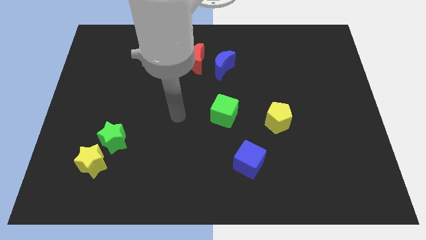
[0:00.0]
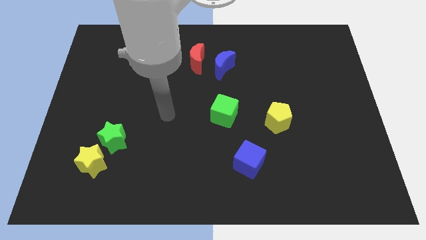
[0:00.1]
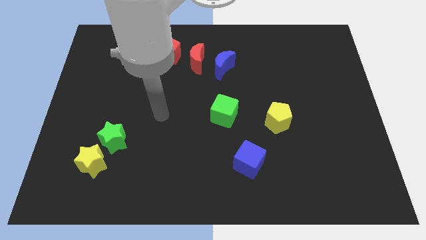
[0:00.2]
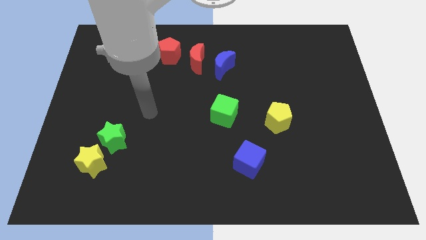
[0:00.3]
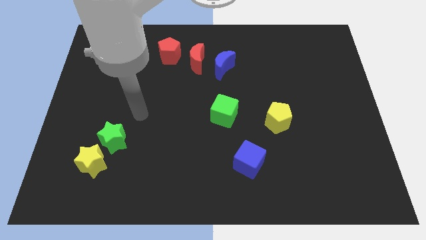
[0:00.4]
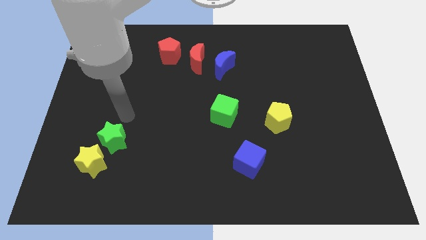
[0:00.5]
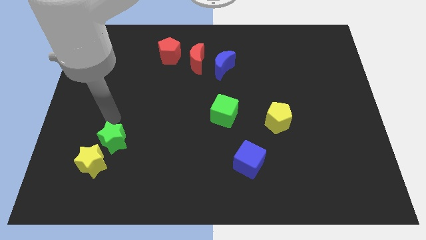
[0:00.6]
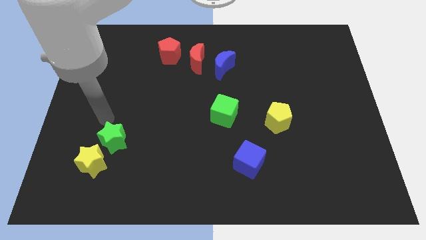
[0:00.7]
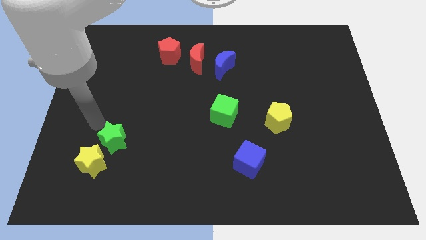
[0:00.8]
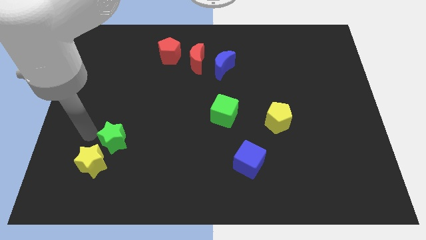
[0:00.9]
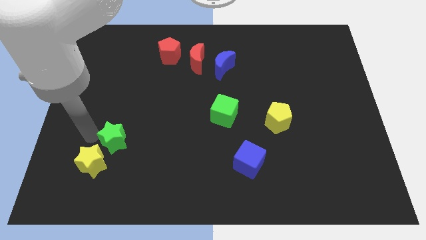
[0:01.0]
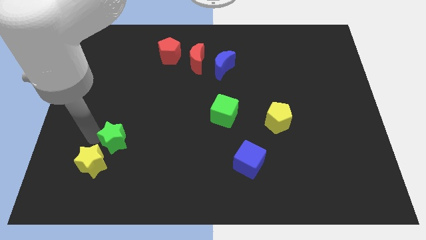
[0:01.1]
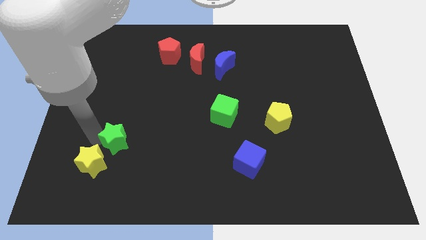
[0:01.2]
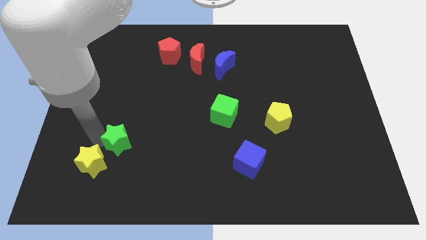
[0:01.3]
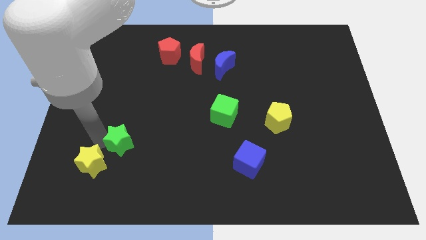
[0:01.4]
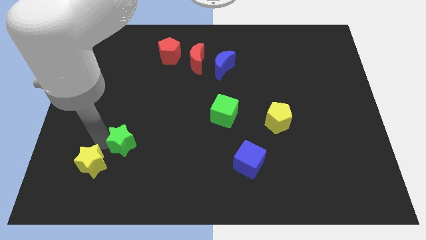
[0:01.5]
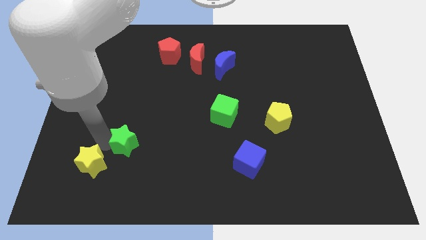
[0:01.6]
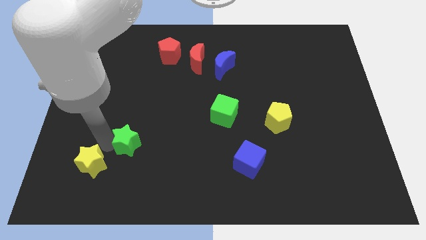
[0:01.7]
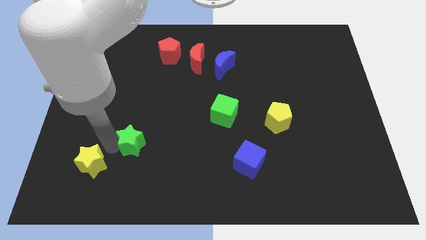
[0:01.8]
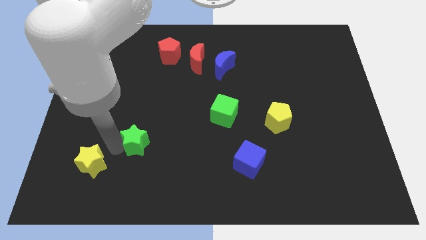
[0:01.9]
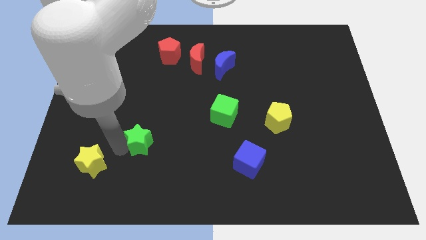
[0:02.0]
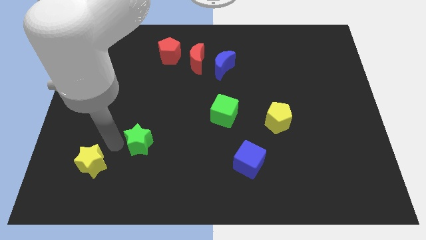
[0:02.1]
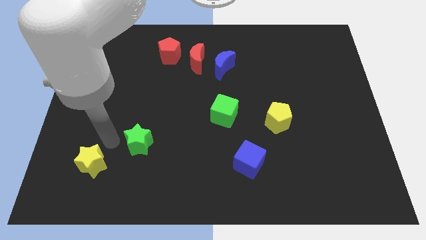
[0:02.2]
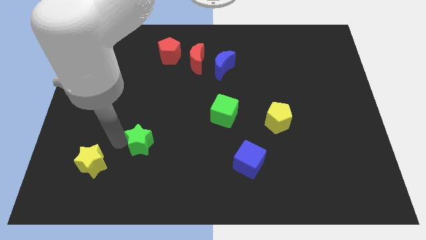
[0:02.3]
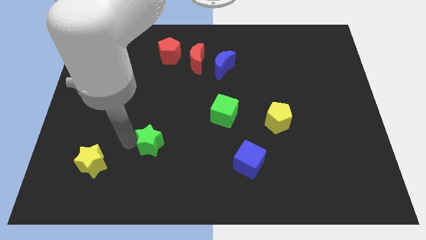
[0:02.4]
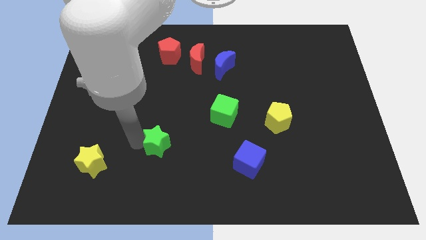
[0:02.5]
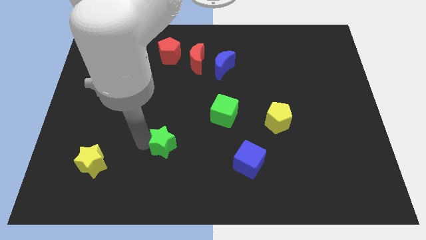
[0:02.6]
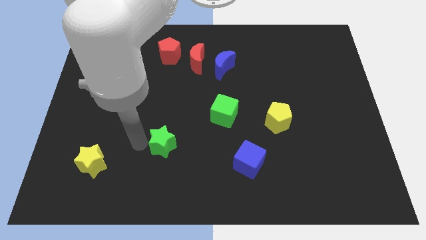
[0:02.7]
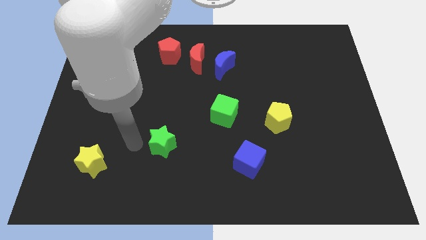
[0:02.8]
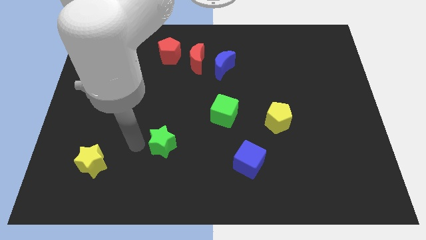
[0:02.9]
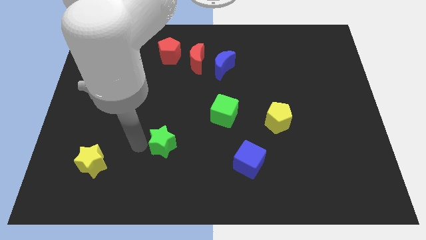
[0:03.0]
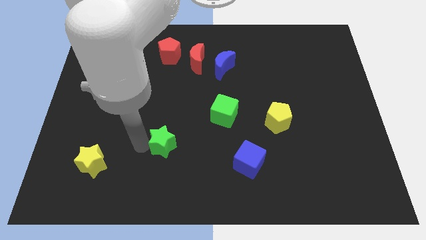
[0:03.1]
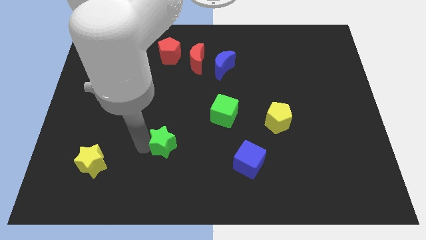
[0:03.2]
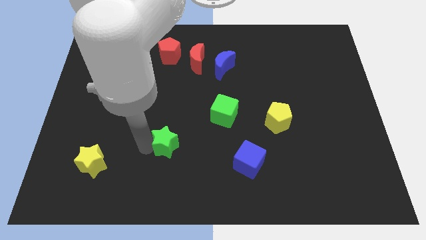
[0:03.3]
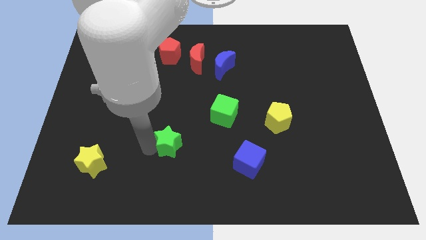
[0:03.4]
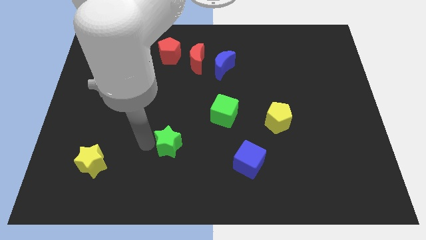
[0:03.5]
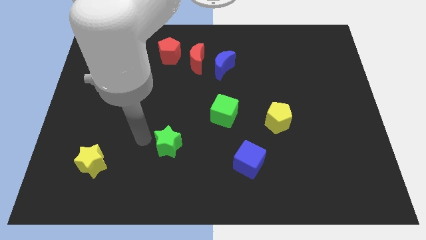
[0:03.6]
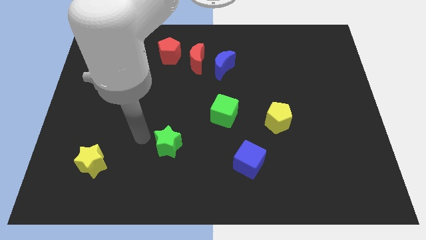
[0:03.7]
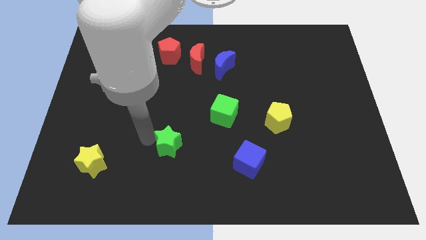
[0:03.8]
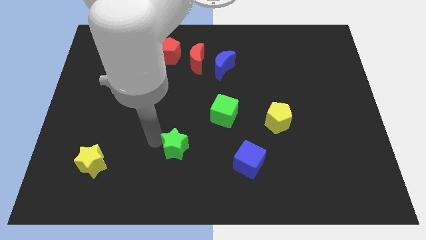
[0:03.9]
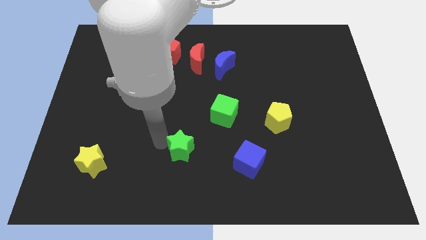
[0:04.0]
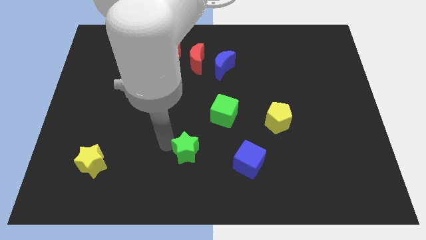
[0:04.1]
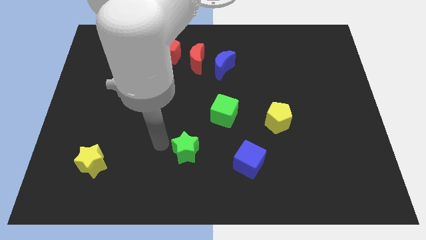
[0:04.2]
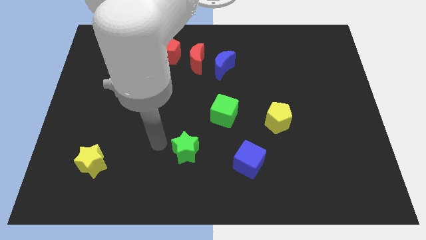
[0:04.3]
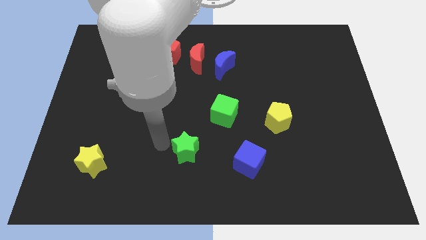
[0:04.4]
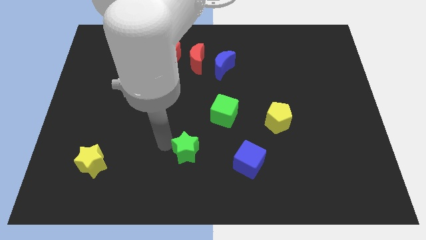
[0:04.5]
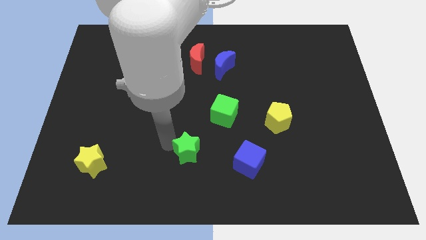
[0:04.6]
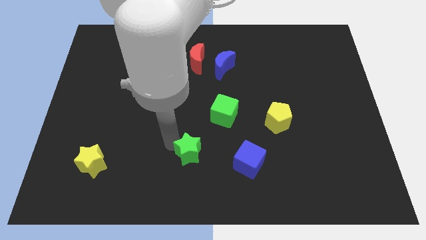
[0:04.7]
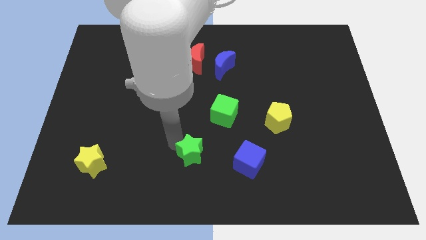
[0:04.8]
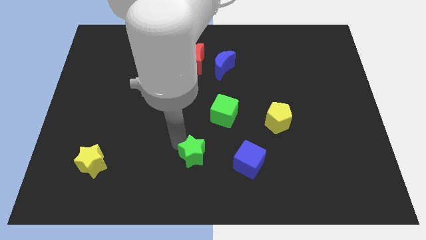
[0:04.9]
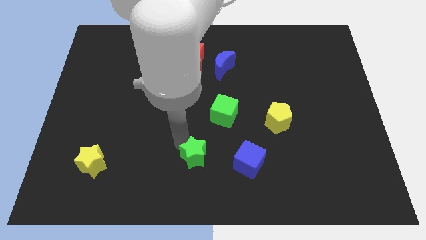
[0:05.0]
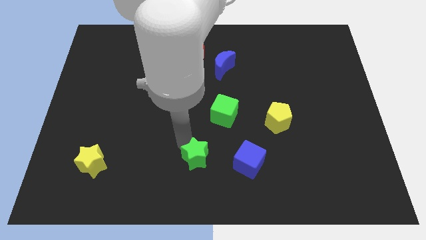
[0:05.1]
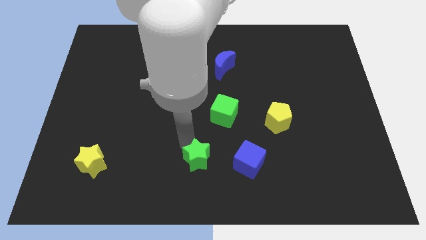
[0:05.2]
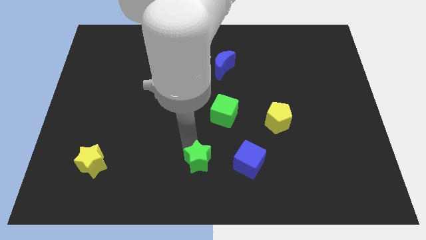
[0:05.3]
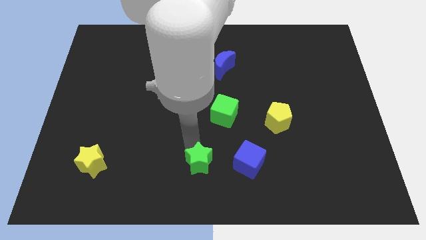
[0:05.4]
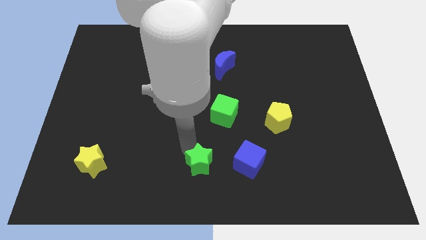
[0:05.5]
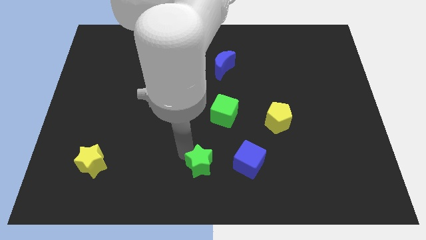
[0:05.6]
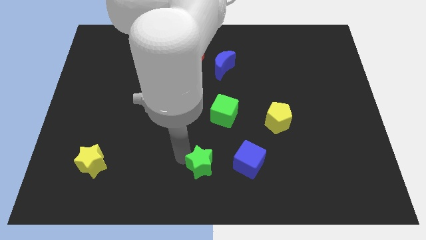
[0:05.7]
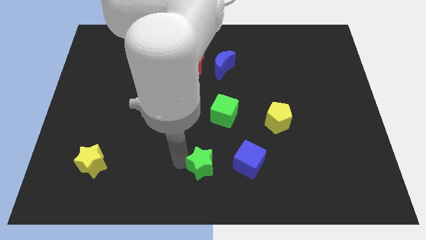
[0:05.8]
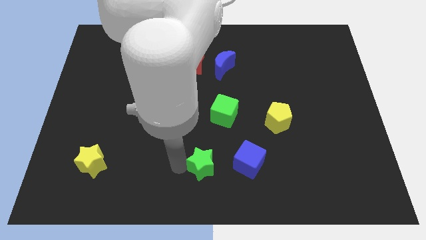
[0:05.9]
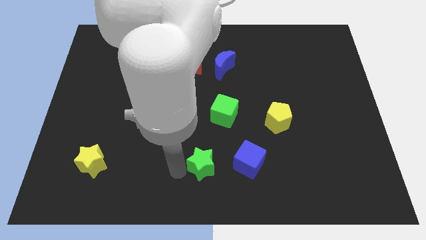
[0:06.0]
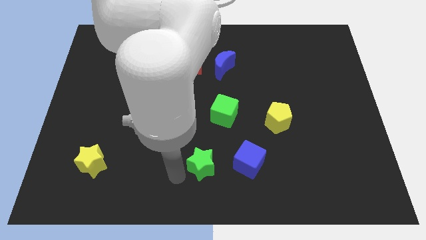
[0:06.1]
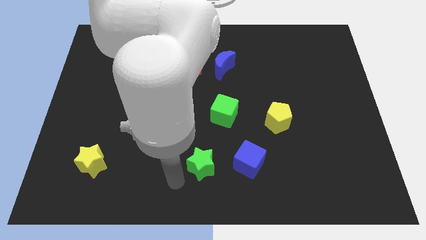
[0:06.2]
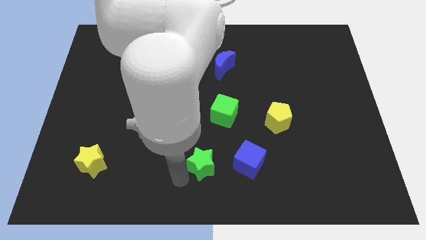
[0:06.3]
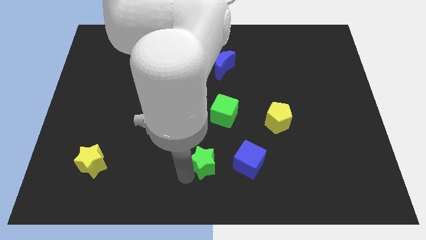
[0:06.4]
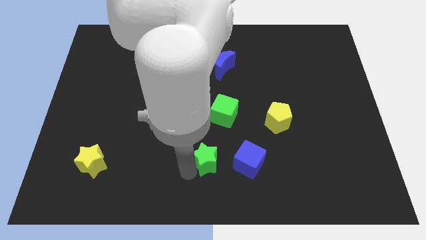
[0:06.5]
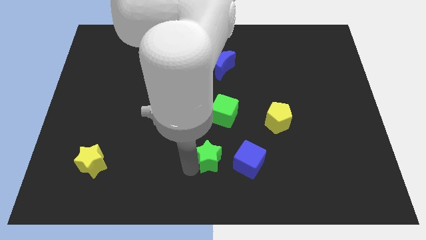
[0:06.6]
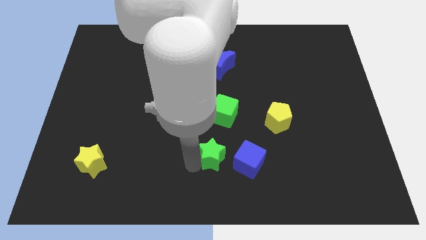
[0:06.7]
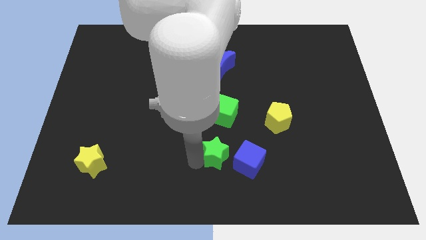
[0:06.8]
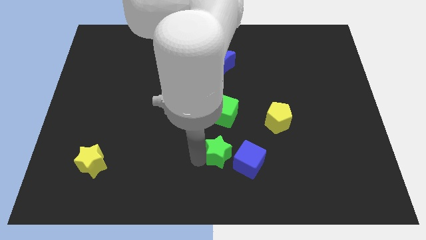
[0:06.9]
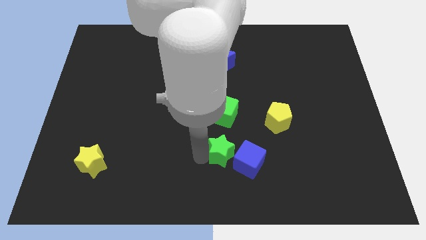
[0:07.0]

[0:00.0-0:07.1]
push the green star towards the blue cube

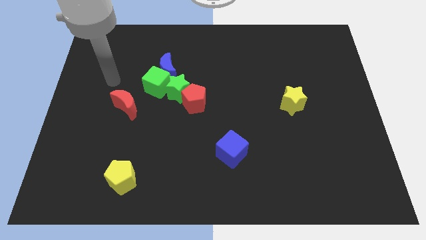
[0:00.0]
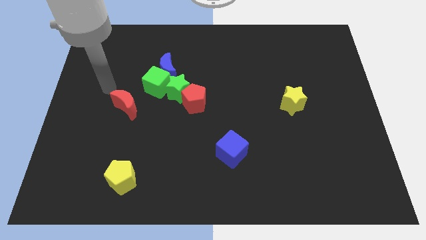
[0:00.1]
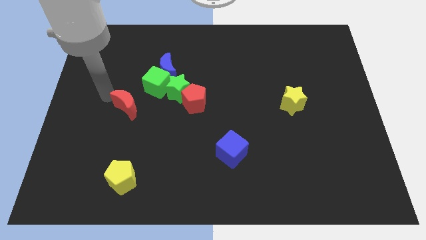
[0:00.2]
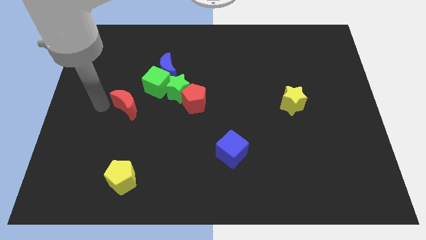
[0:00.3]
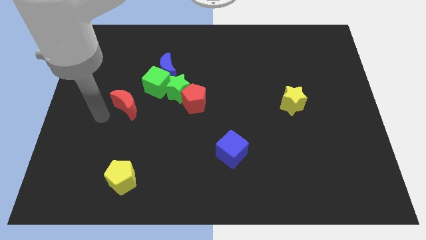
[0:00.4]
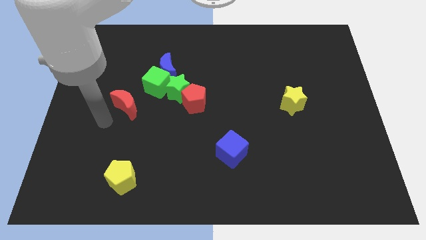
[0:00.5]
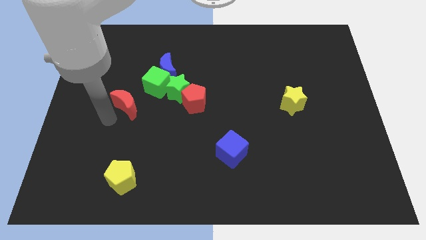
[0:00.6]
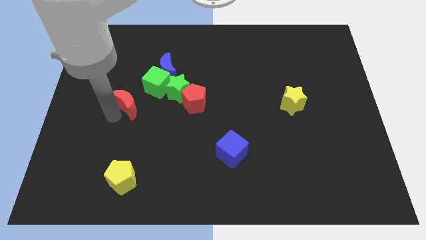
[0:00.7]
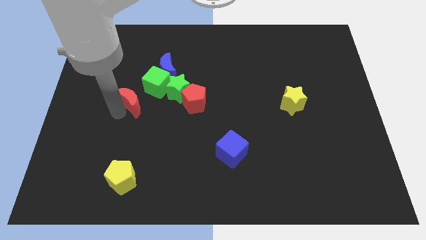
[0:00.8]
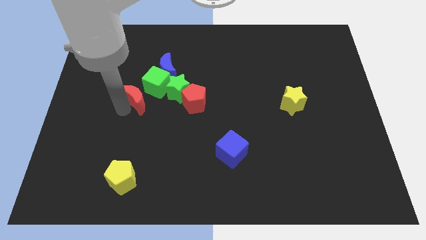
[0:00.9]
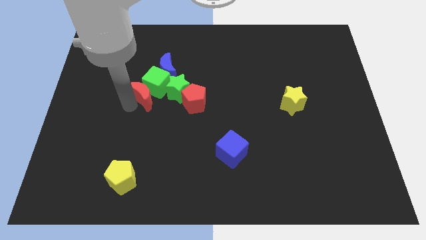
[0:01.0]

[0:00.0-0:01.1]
slide the red moon to the green cube
